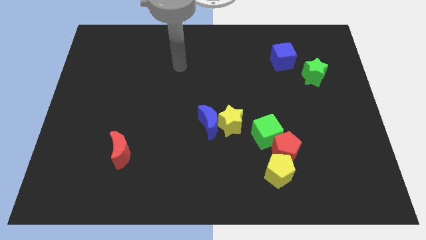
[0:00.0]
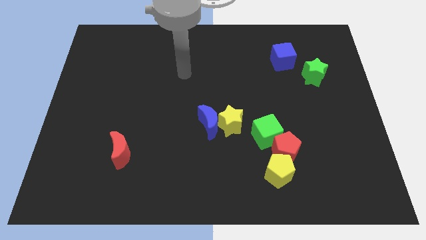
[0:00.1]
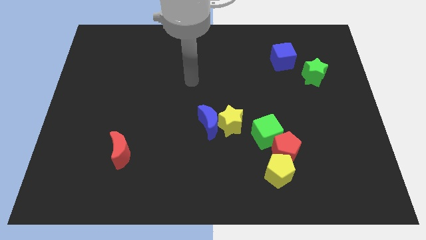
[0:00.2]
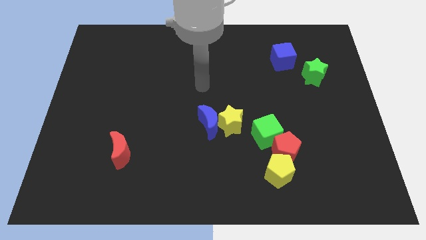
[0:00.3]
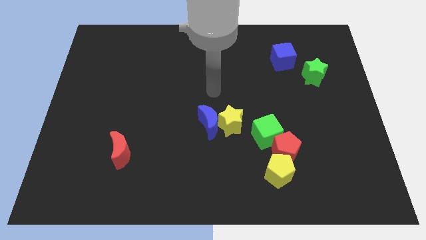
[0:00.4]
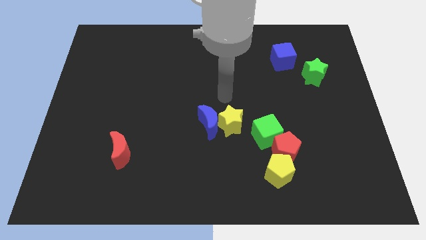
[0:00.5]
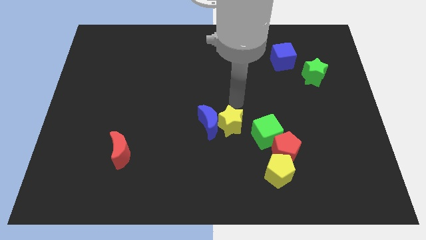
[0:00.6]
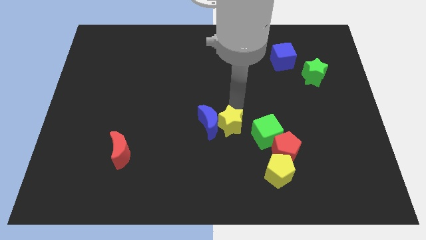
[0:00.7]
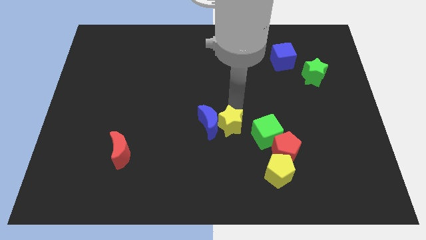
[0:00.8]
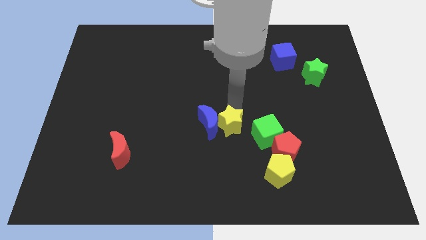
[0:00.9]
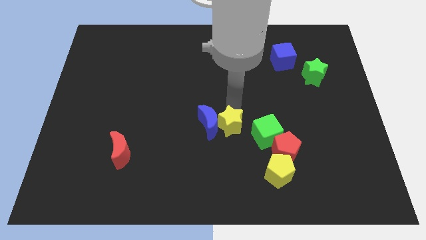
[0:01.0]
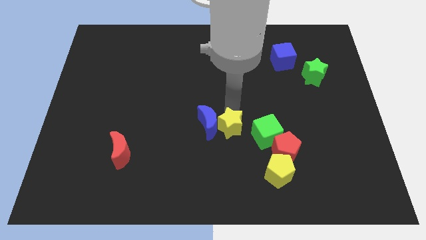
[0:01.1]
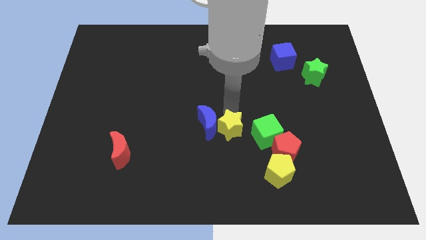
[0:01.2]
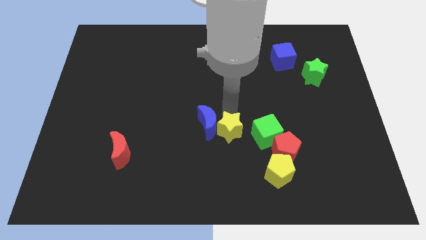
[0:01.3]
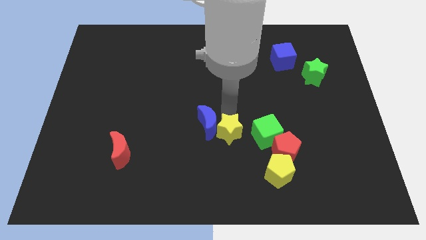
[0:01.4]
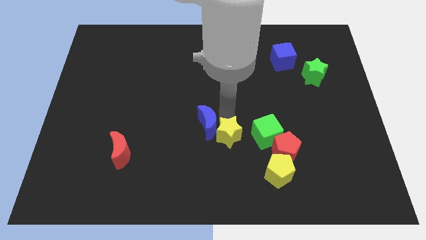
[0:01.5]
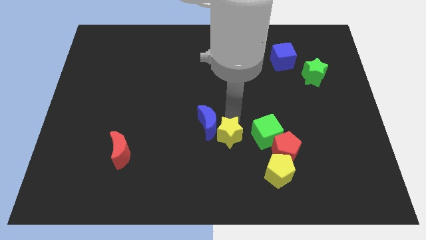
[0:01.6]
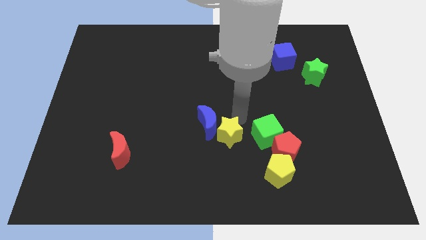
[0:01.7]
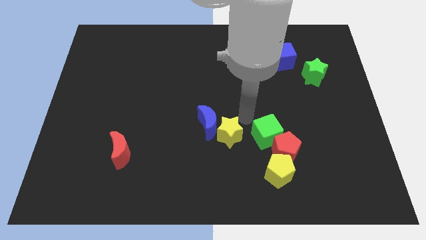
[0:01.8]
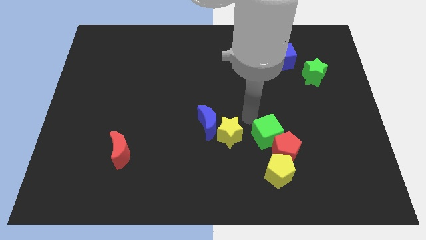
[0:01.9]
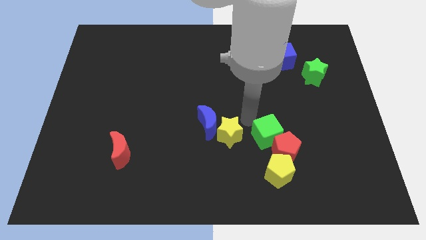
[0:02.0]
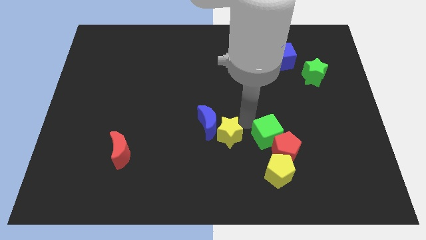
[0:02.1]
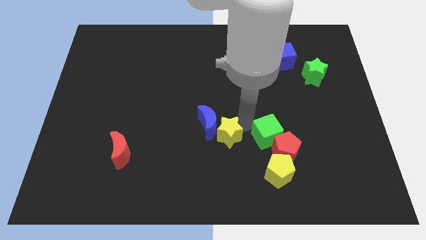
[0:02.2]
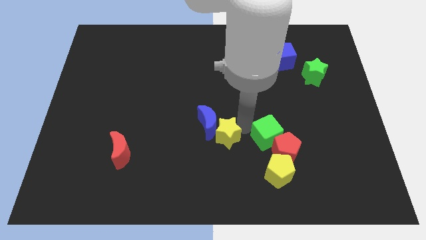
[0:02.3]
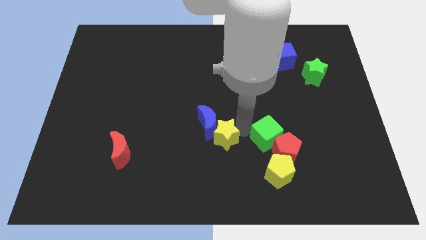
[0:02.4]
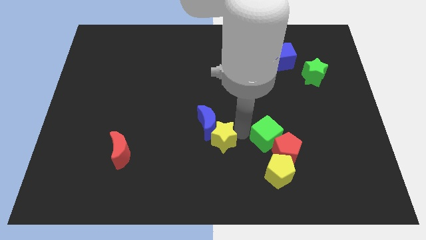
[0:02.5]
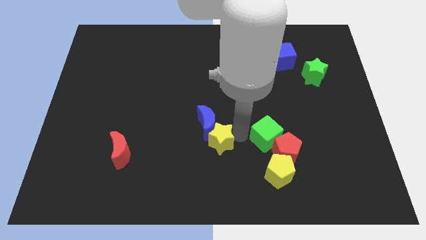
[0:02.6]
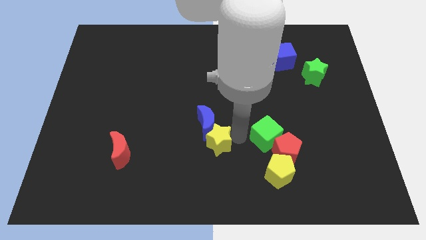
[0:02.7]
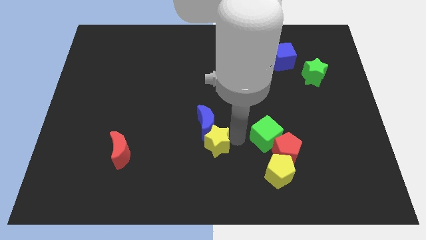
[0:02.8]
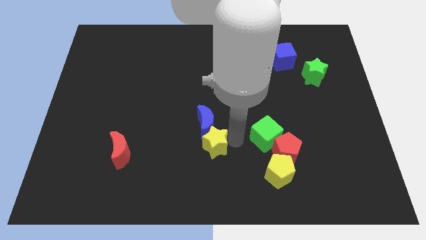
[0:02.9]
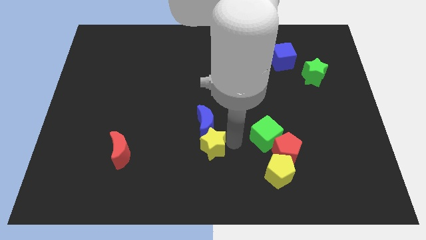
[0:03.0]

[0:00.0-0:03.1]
slightly move the yellow star downwards and then left

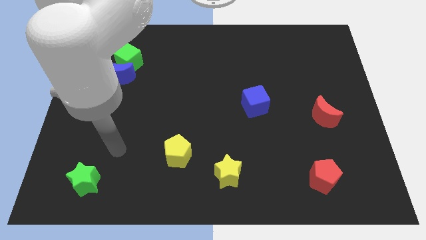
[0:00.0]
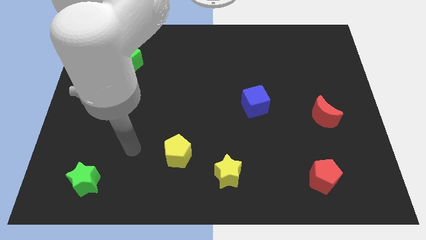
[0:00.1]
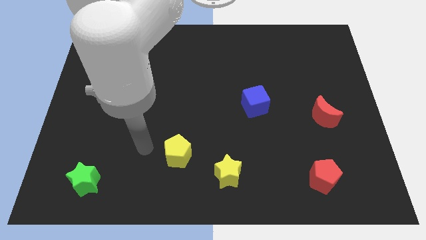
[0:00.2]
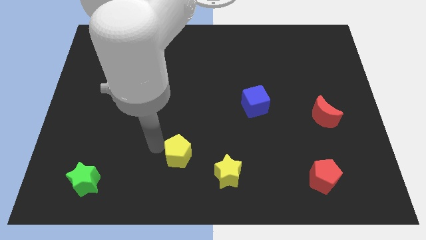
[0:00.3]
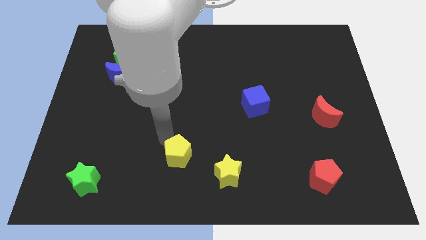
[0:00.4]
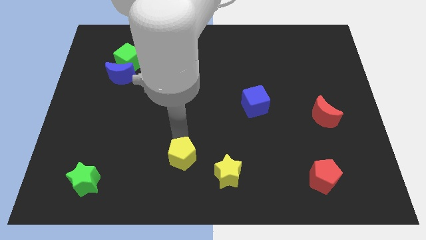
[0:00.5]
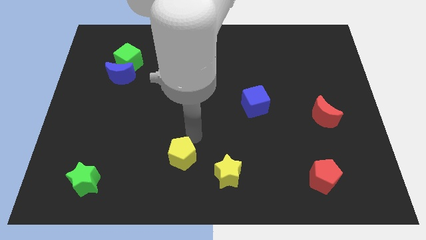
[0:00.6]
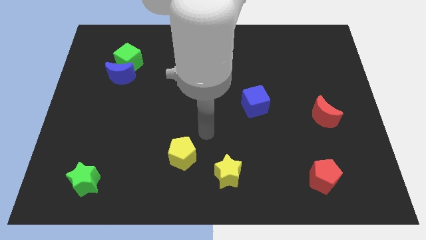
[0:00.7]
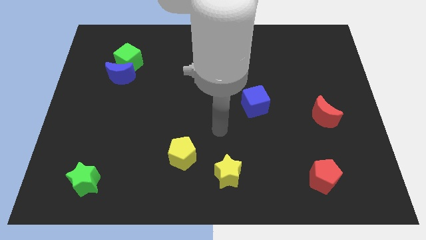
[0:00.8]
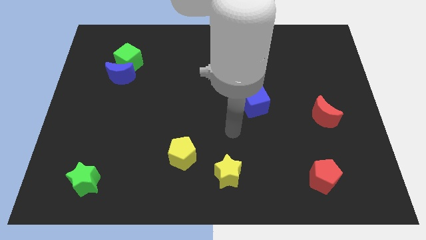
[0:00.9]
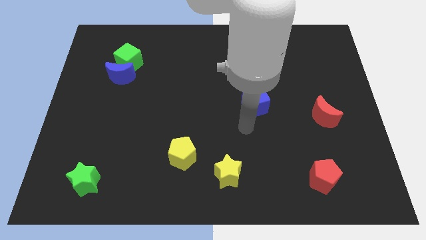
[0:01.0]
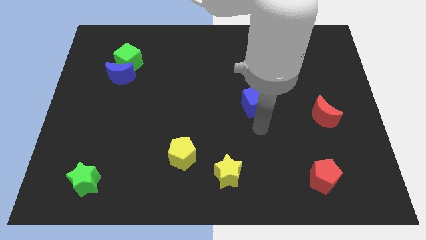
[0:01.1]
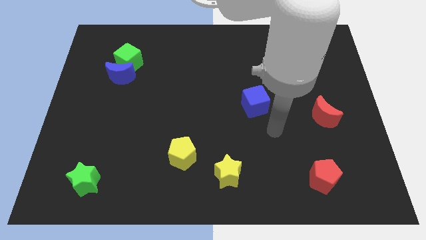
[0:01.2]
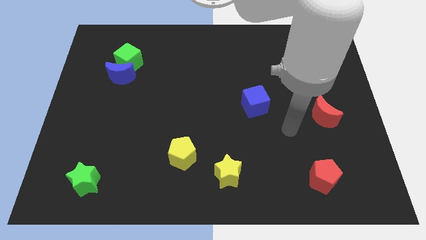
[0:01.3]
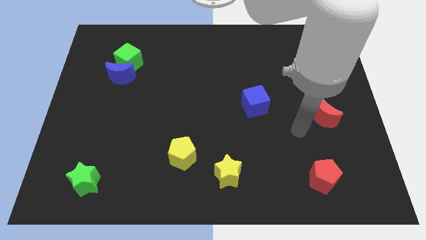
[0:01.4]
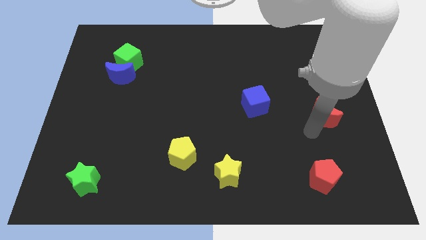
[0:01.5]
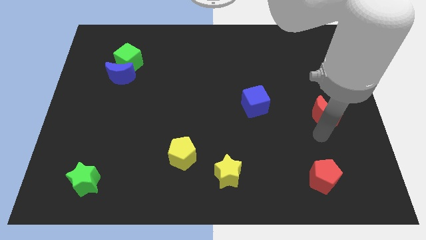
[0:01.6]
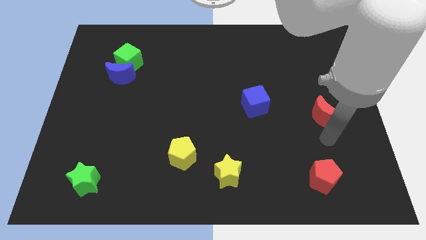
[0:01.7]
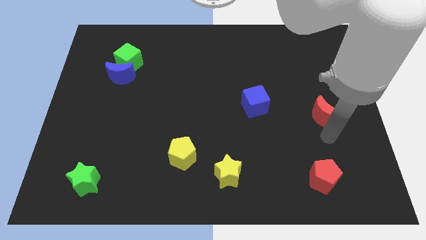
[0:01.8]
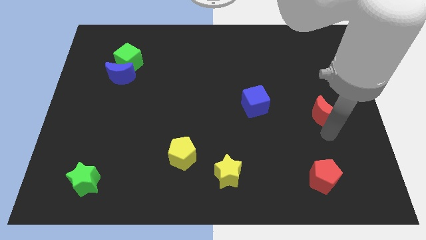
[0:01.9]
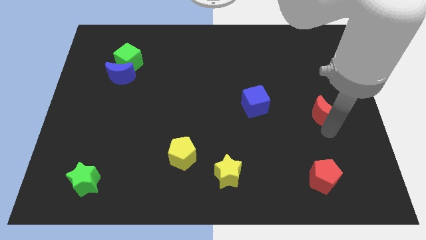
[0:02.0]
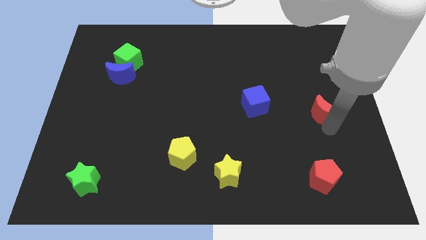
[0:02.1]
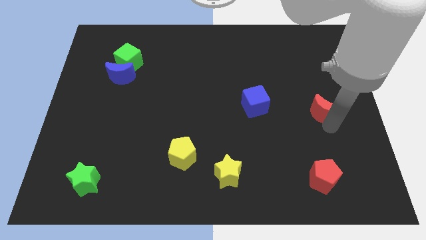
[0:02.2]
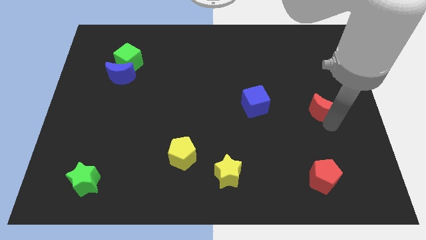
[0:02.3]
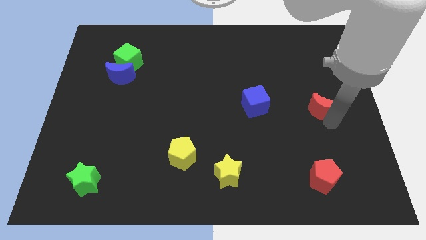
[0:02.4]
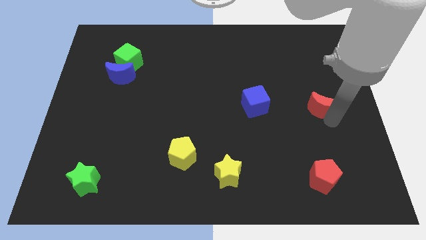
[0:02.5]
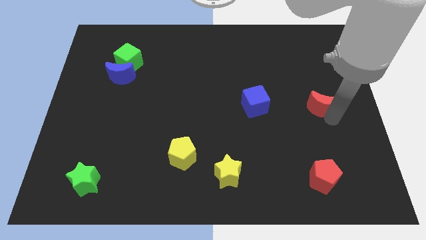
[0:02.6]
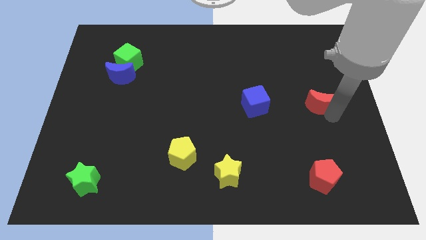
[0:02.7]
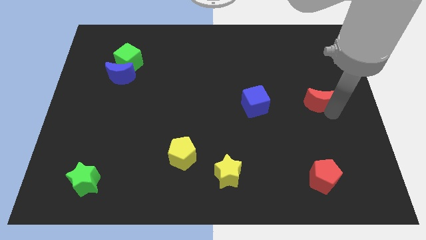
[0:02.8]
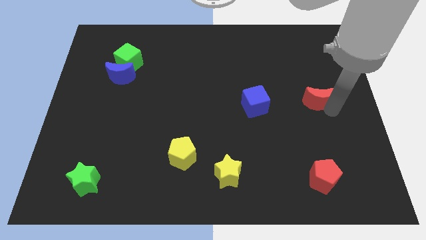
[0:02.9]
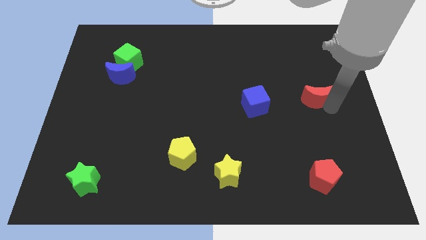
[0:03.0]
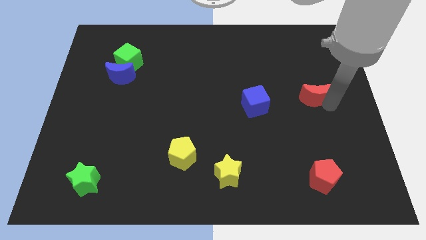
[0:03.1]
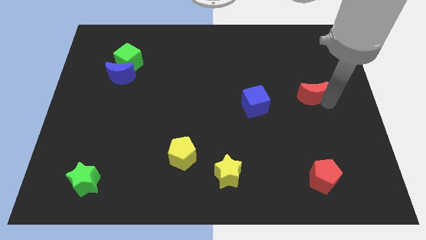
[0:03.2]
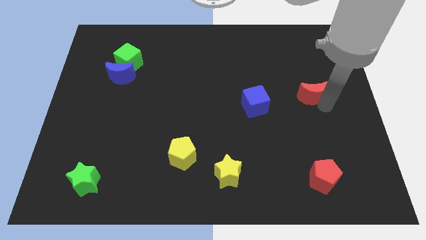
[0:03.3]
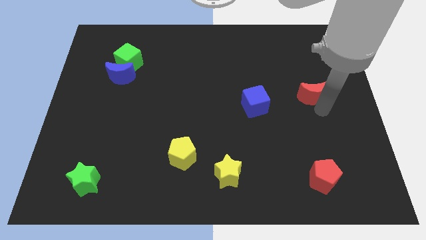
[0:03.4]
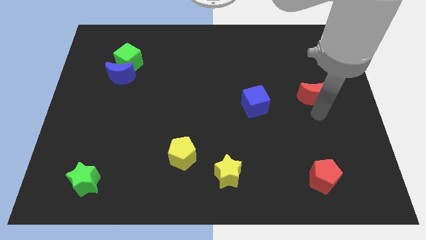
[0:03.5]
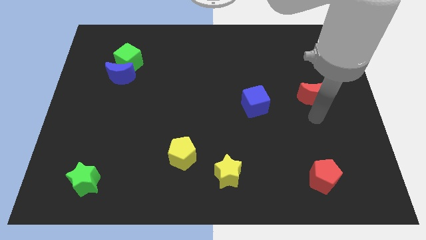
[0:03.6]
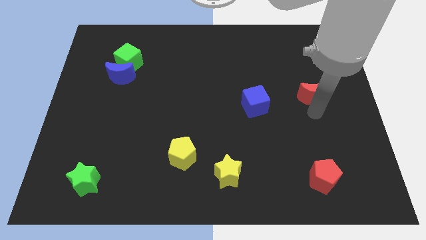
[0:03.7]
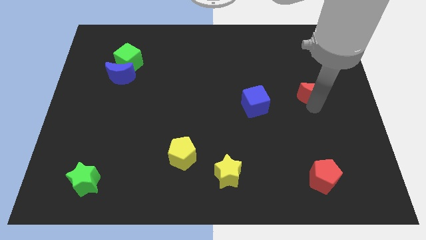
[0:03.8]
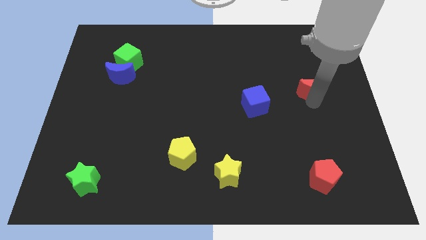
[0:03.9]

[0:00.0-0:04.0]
move the red moon upwards a bit

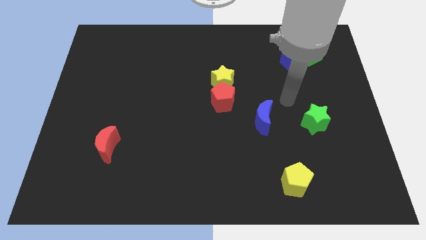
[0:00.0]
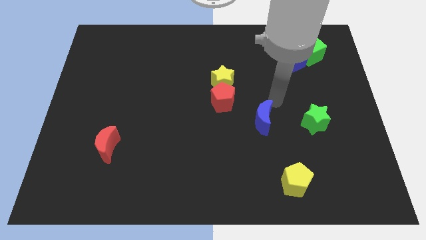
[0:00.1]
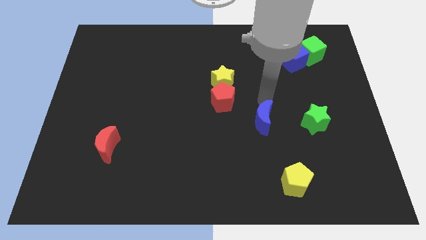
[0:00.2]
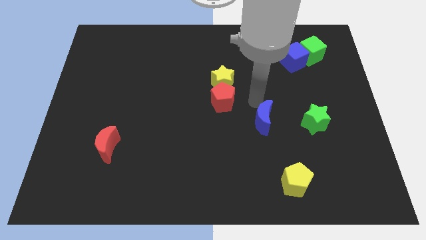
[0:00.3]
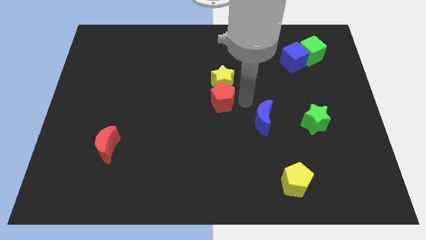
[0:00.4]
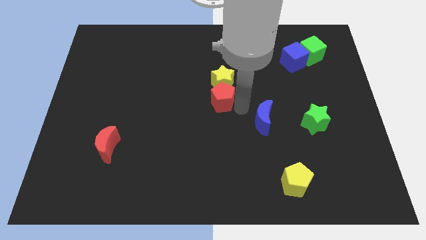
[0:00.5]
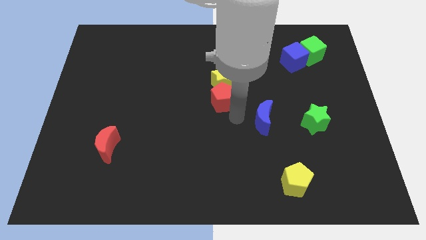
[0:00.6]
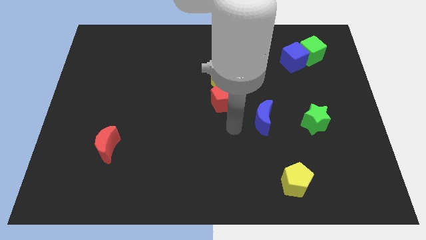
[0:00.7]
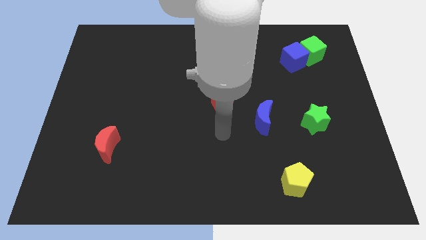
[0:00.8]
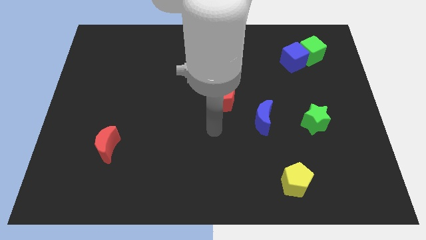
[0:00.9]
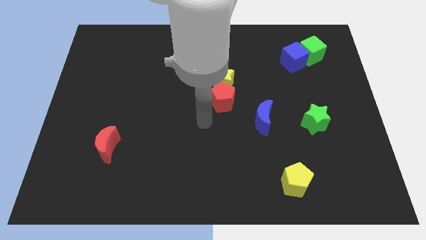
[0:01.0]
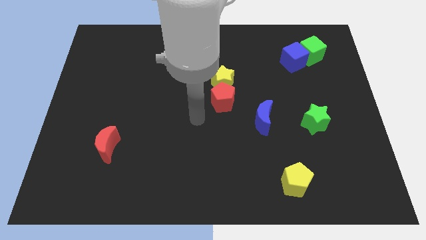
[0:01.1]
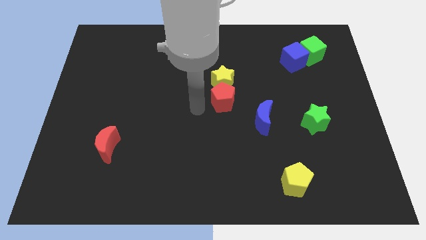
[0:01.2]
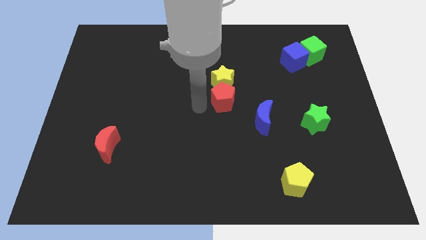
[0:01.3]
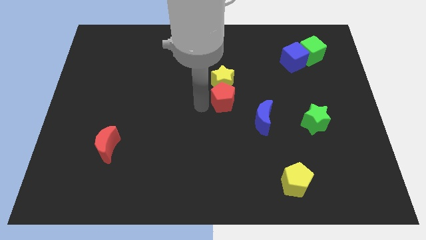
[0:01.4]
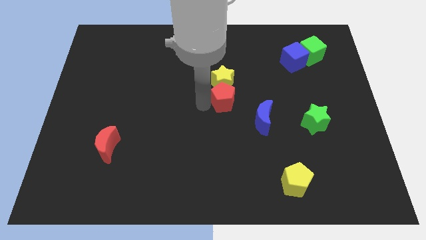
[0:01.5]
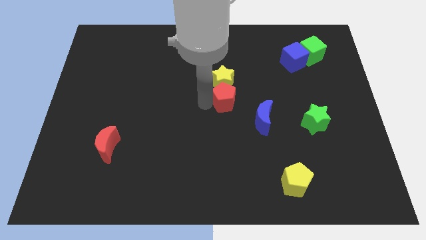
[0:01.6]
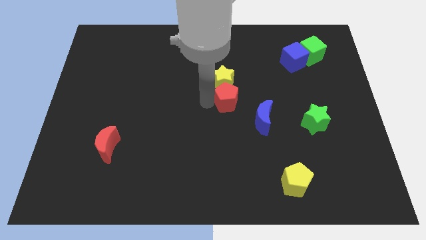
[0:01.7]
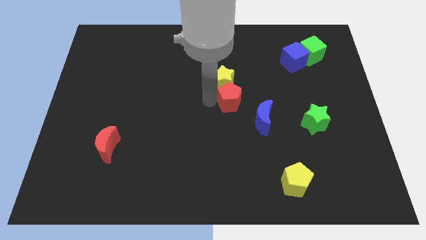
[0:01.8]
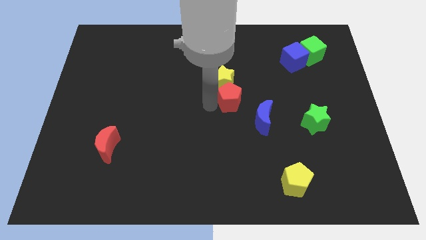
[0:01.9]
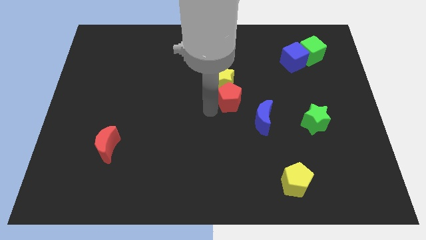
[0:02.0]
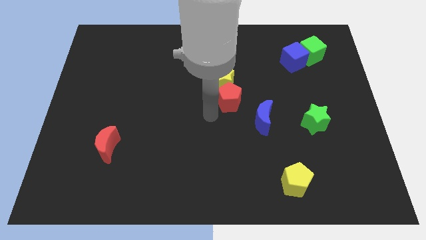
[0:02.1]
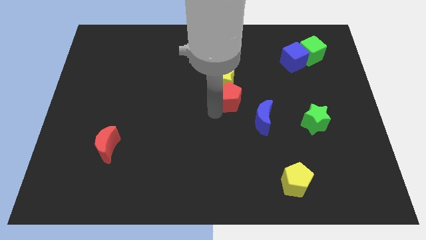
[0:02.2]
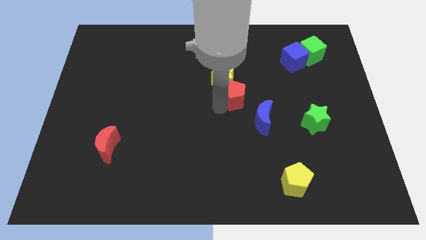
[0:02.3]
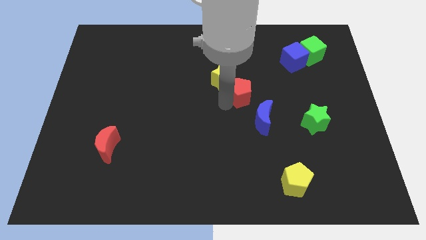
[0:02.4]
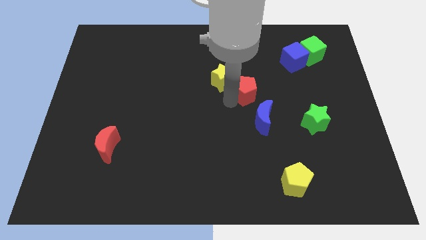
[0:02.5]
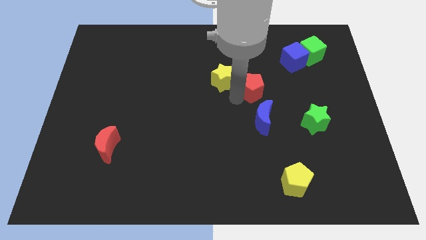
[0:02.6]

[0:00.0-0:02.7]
move the red pentagon upwards and right a little bit
